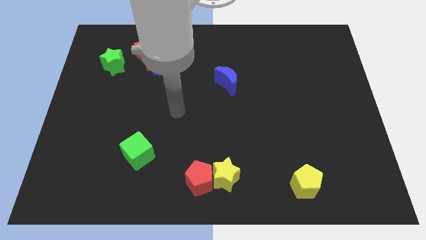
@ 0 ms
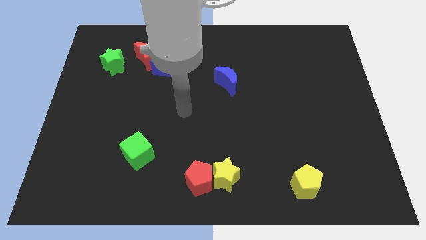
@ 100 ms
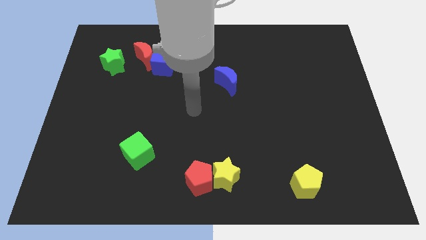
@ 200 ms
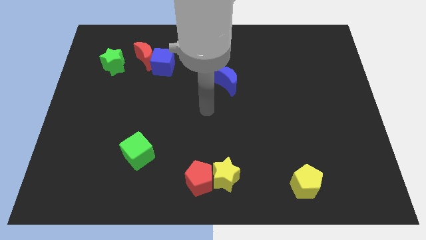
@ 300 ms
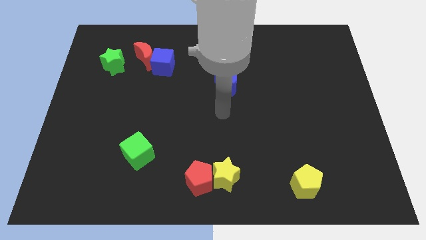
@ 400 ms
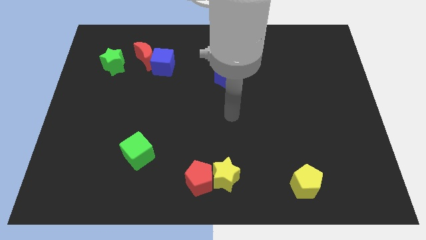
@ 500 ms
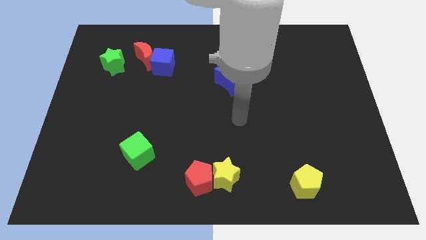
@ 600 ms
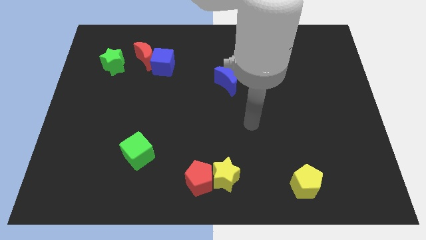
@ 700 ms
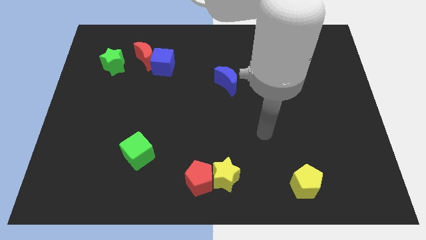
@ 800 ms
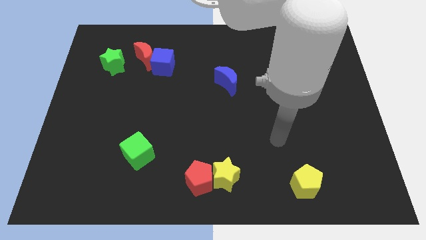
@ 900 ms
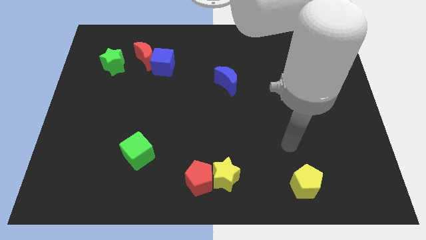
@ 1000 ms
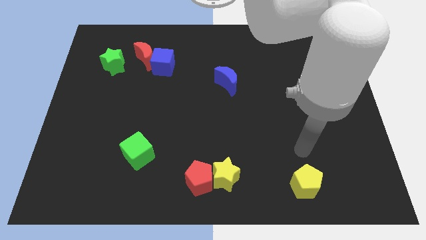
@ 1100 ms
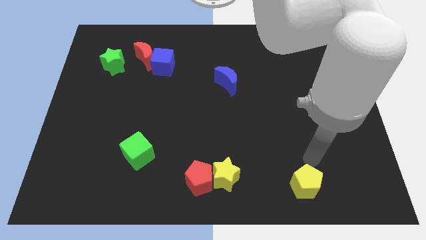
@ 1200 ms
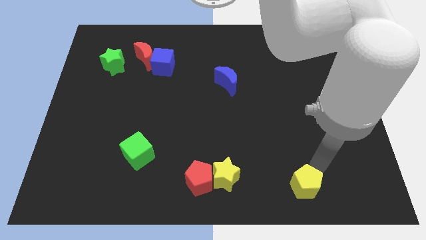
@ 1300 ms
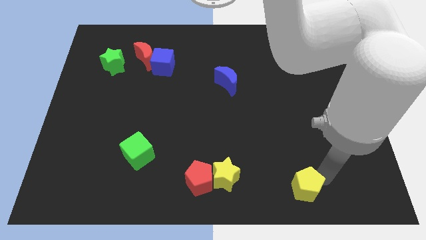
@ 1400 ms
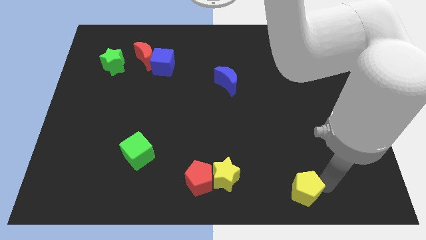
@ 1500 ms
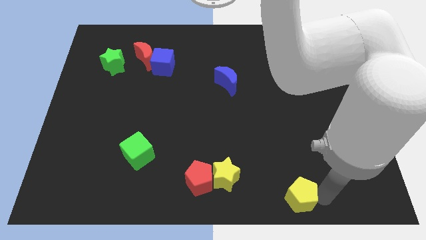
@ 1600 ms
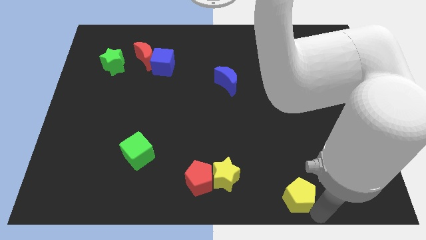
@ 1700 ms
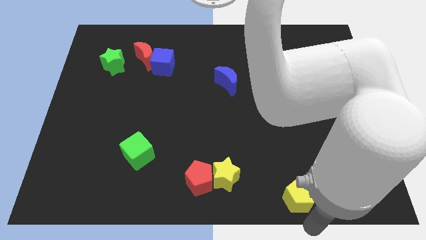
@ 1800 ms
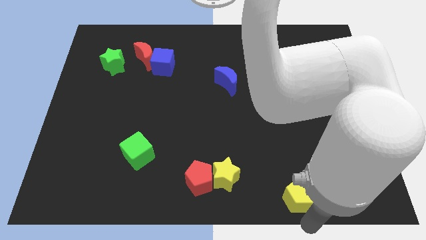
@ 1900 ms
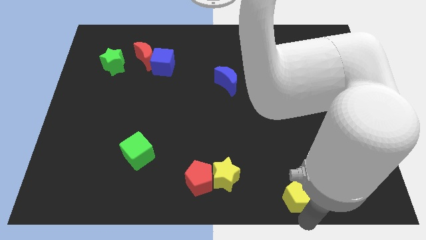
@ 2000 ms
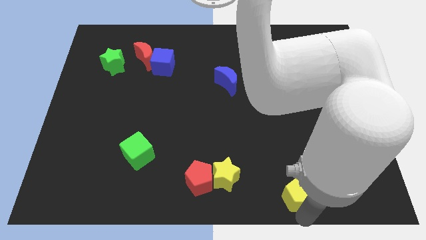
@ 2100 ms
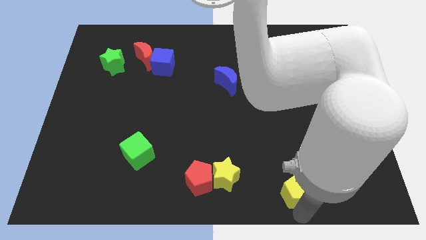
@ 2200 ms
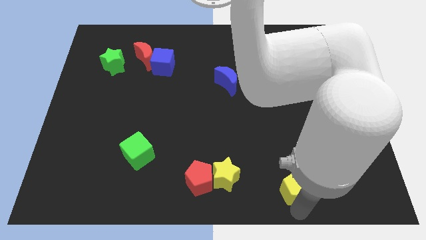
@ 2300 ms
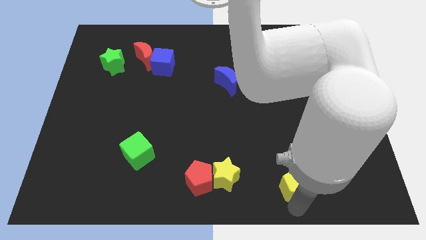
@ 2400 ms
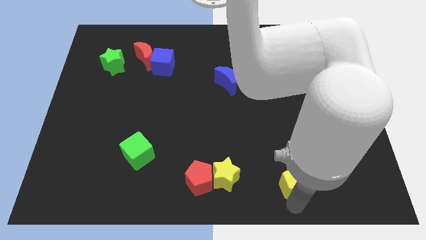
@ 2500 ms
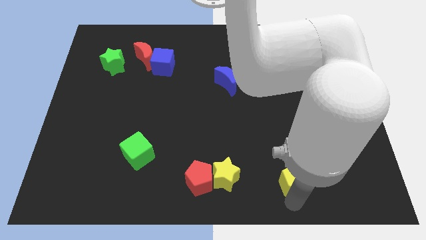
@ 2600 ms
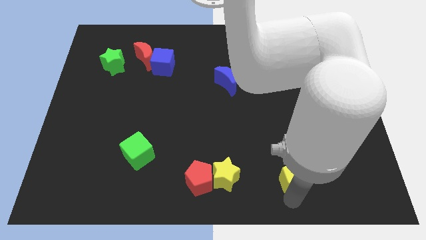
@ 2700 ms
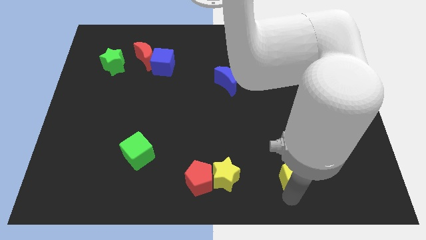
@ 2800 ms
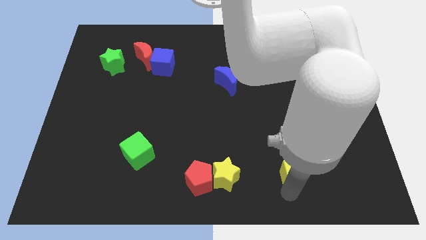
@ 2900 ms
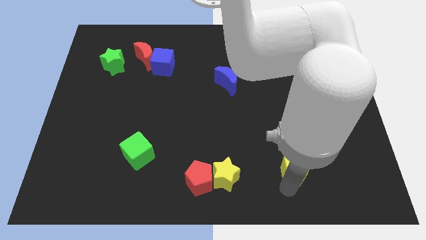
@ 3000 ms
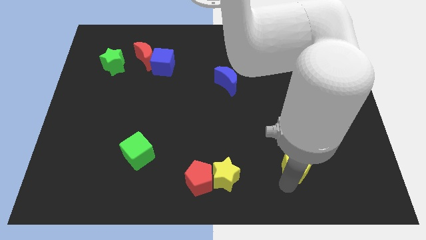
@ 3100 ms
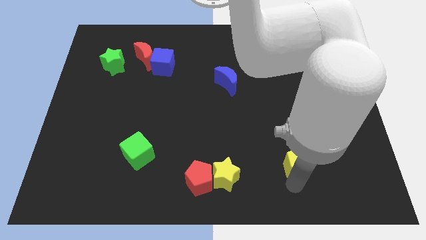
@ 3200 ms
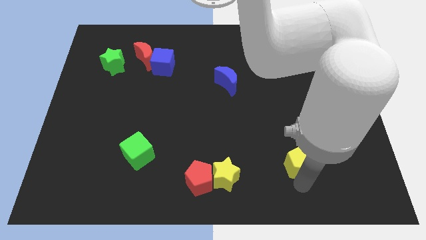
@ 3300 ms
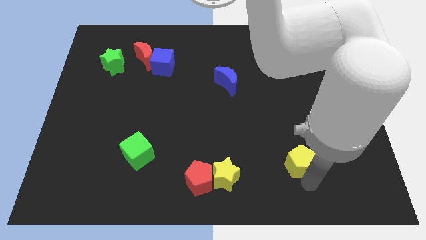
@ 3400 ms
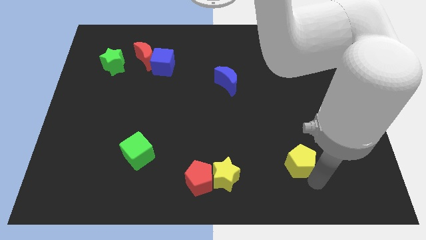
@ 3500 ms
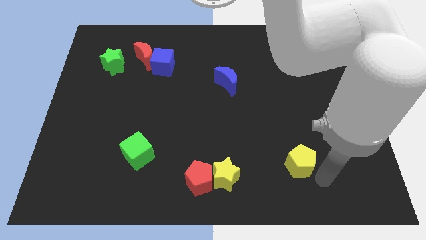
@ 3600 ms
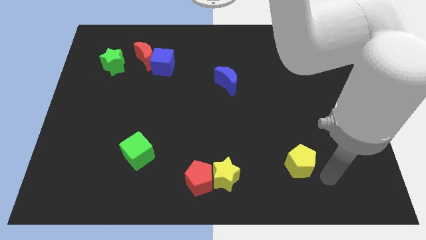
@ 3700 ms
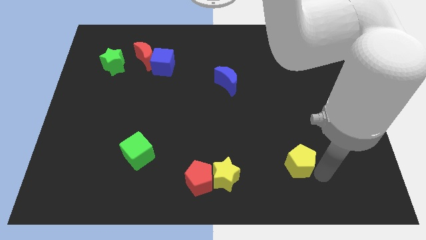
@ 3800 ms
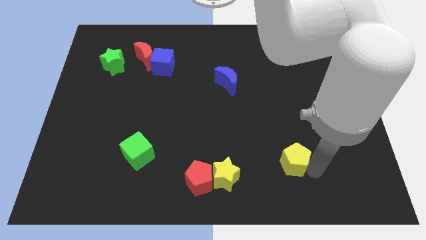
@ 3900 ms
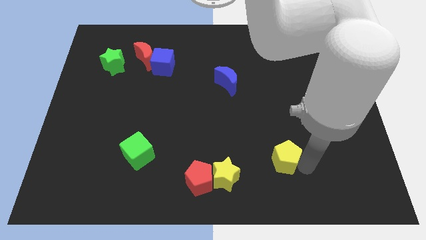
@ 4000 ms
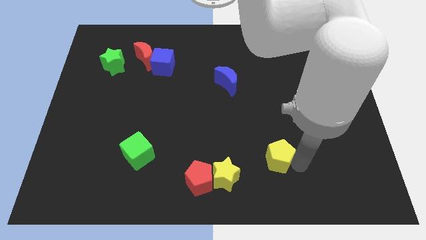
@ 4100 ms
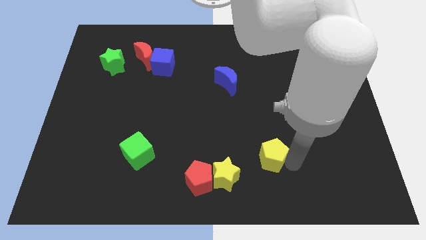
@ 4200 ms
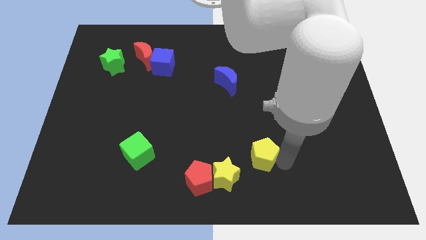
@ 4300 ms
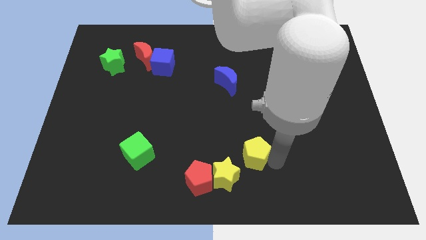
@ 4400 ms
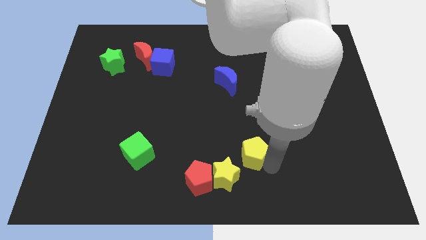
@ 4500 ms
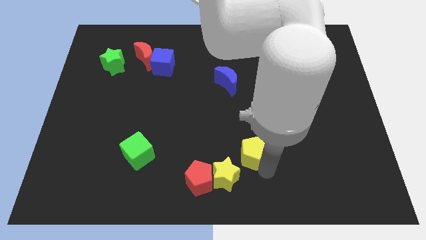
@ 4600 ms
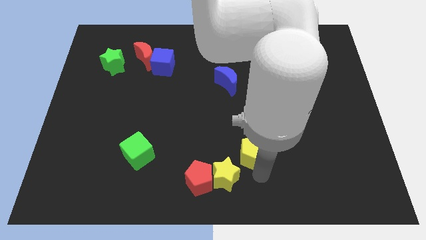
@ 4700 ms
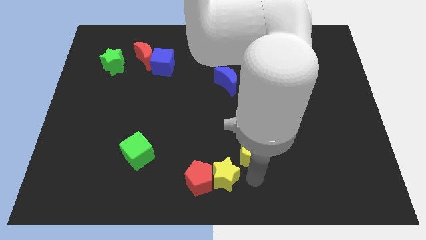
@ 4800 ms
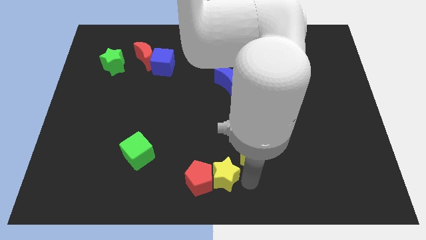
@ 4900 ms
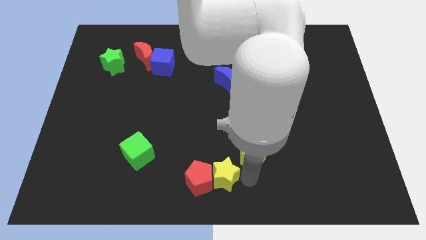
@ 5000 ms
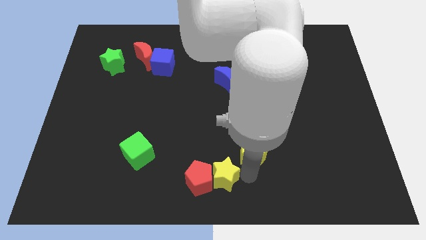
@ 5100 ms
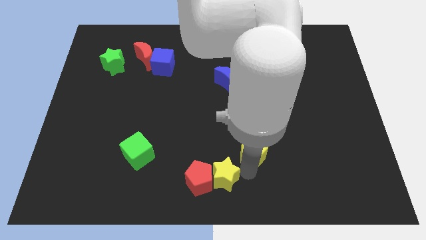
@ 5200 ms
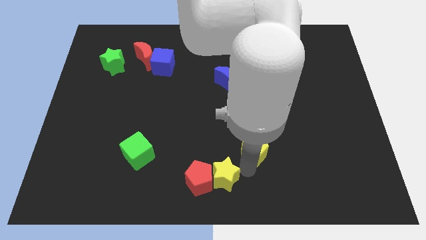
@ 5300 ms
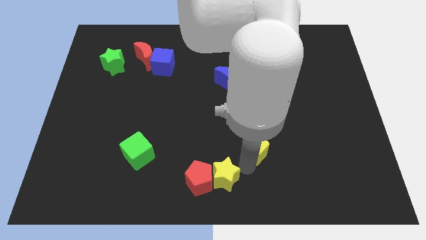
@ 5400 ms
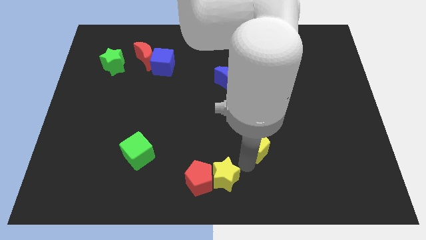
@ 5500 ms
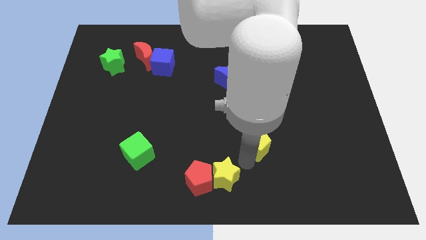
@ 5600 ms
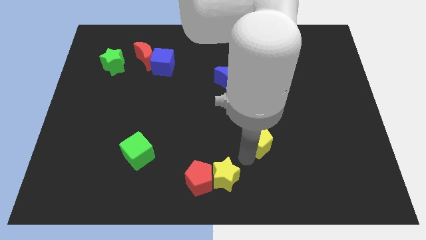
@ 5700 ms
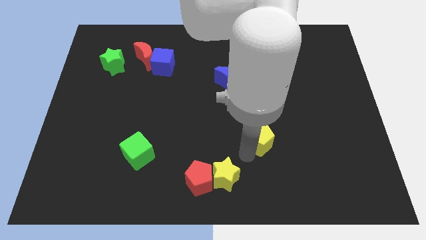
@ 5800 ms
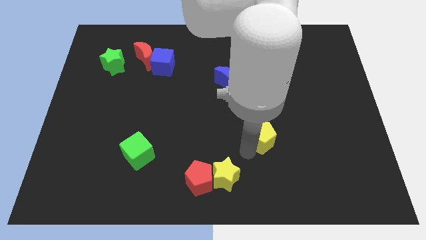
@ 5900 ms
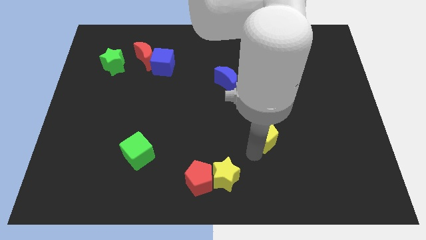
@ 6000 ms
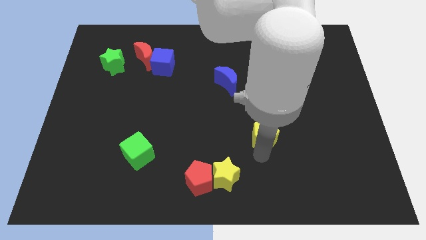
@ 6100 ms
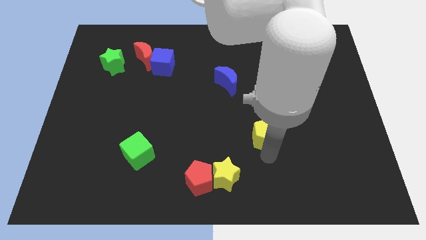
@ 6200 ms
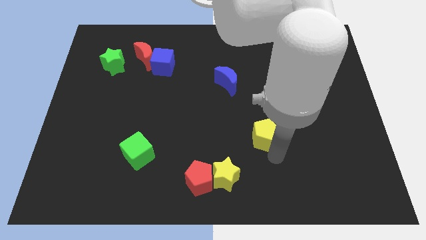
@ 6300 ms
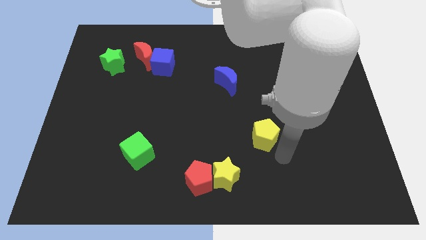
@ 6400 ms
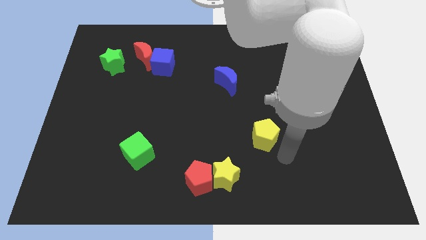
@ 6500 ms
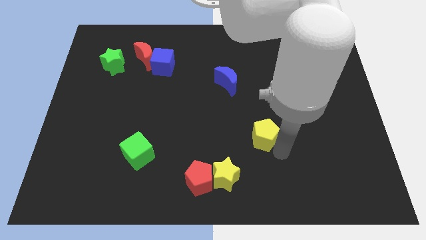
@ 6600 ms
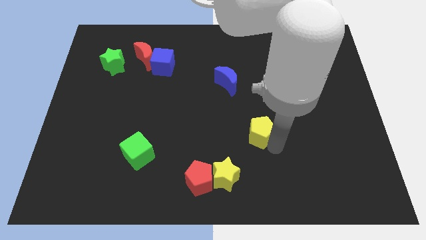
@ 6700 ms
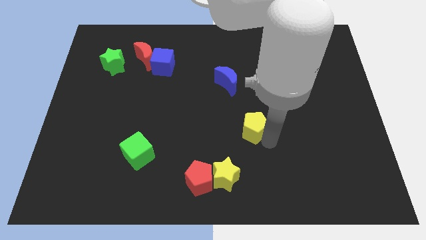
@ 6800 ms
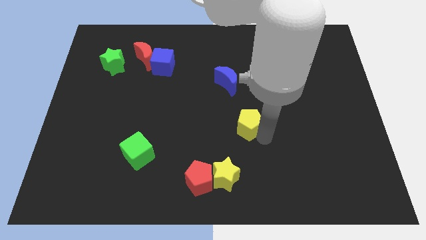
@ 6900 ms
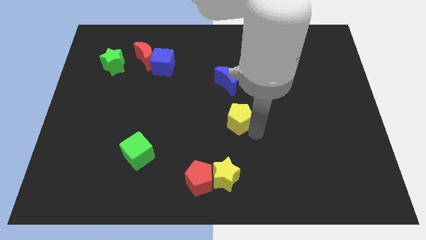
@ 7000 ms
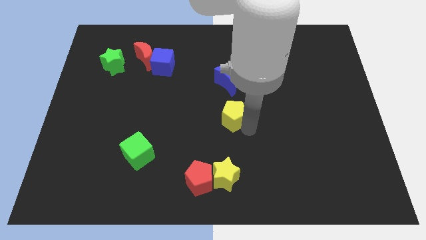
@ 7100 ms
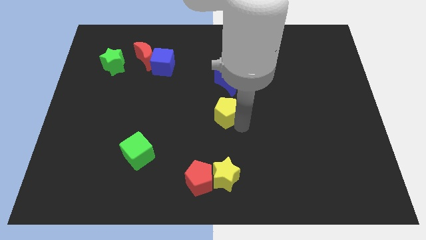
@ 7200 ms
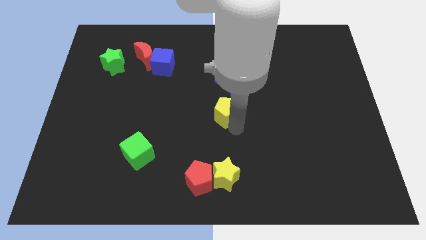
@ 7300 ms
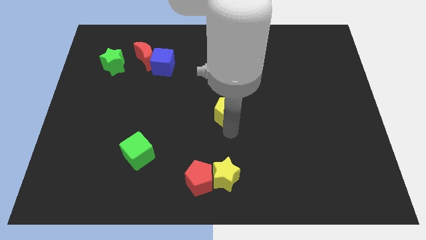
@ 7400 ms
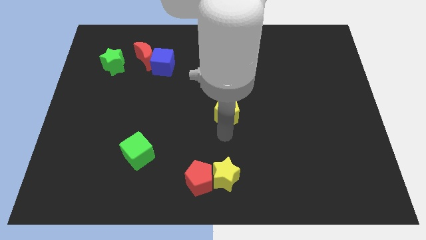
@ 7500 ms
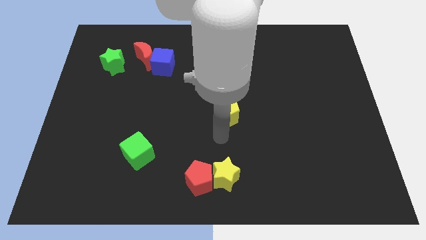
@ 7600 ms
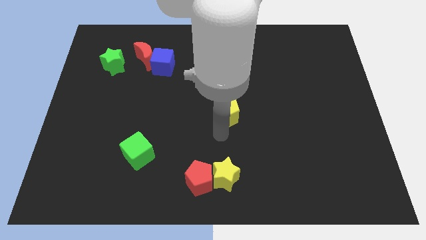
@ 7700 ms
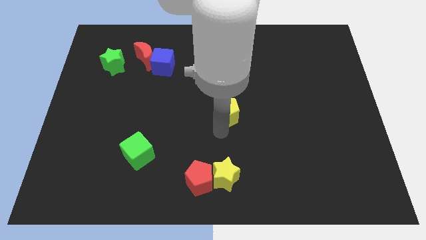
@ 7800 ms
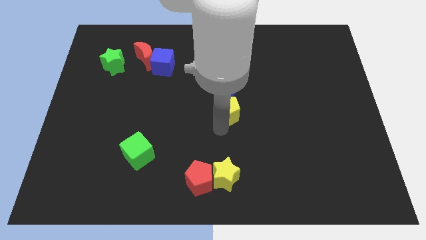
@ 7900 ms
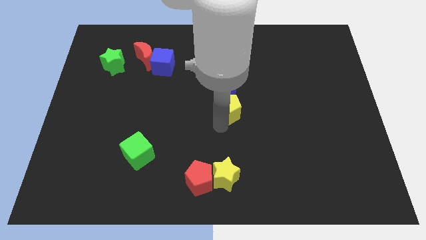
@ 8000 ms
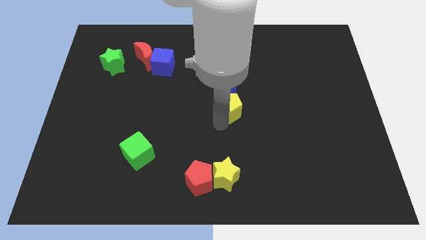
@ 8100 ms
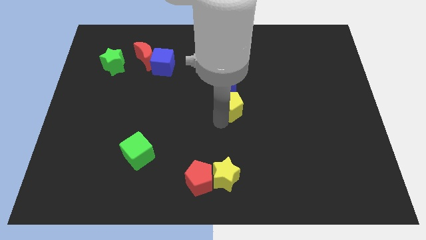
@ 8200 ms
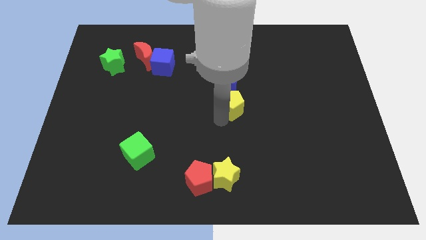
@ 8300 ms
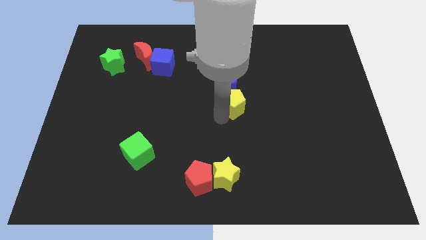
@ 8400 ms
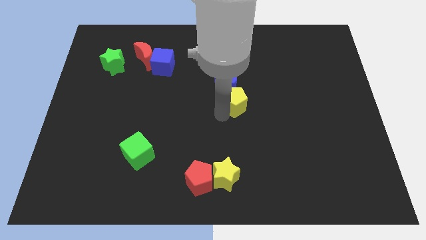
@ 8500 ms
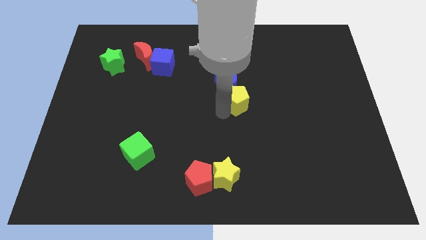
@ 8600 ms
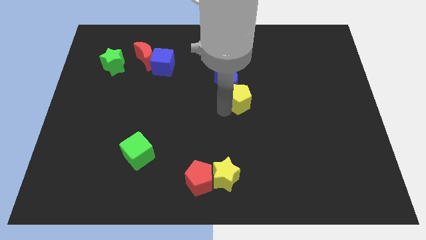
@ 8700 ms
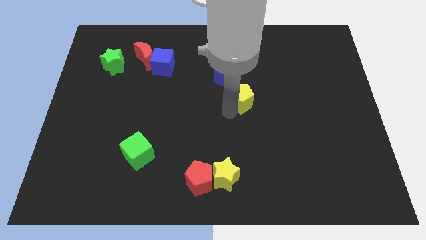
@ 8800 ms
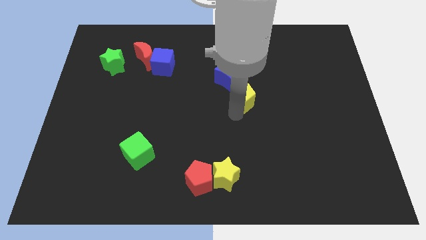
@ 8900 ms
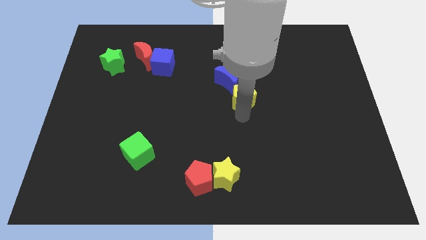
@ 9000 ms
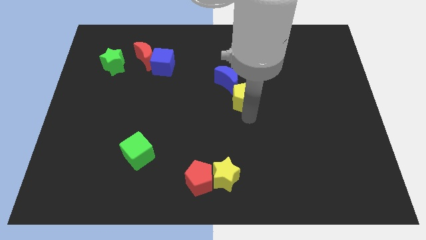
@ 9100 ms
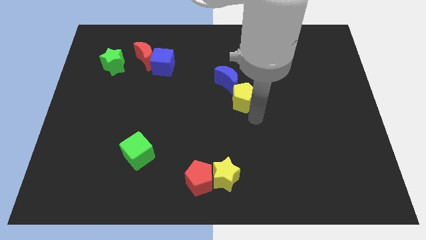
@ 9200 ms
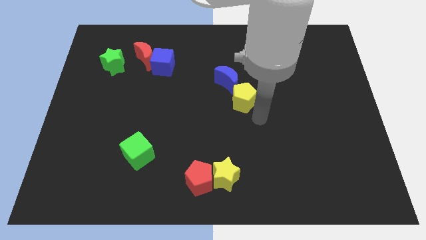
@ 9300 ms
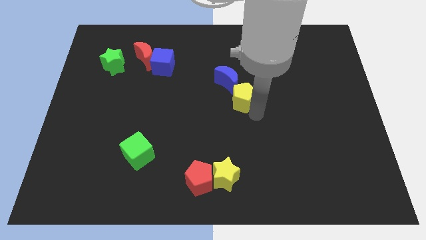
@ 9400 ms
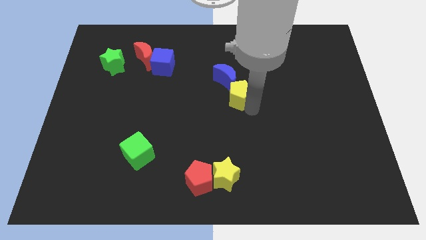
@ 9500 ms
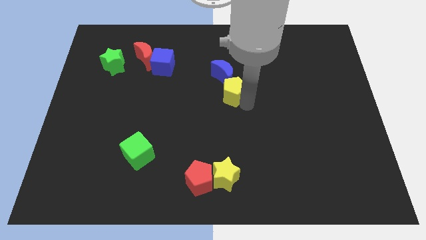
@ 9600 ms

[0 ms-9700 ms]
slide the yellow pentagon to the blue moon
